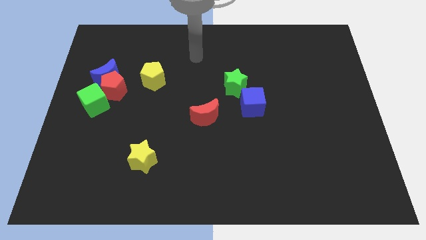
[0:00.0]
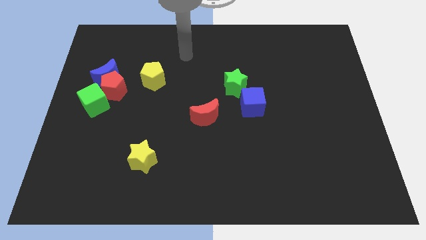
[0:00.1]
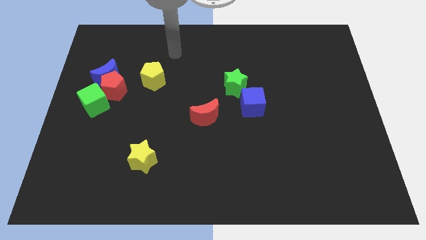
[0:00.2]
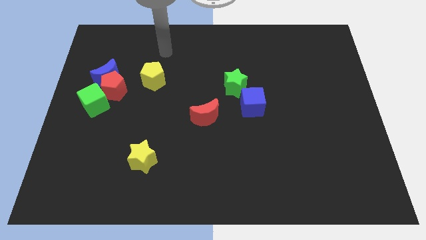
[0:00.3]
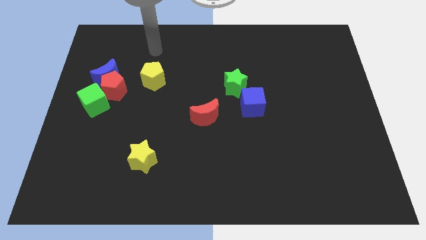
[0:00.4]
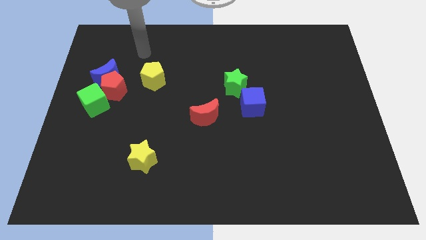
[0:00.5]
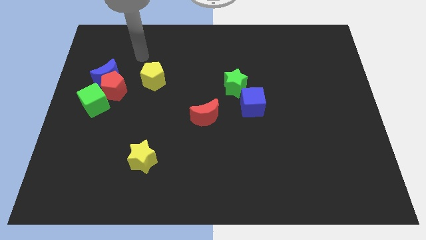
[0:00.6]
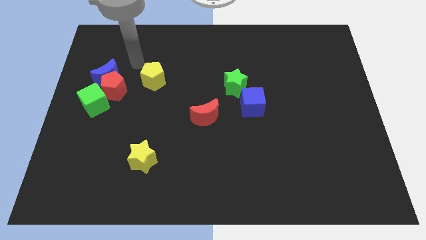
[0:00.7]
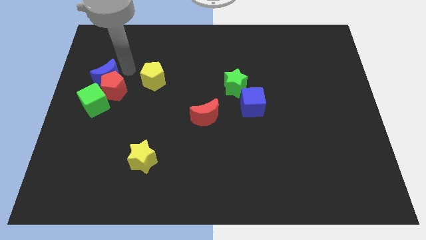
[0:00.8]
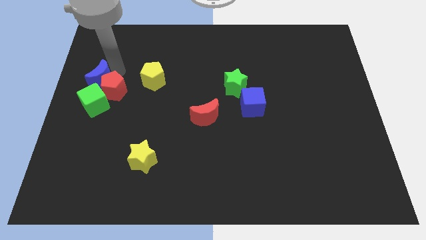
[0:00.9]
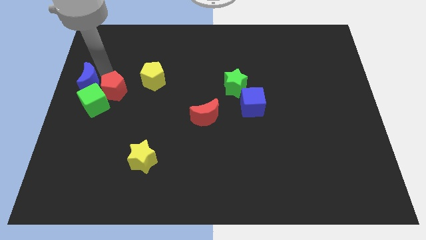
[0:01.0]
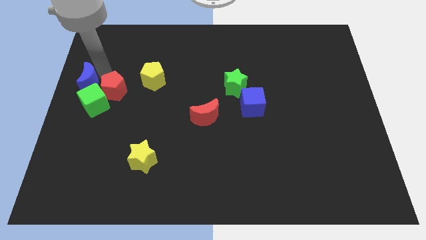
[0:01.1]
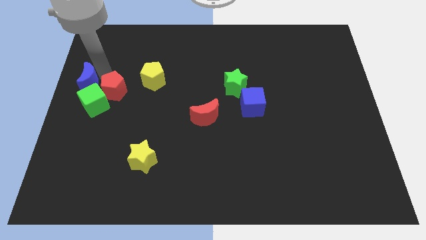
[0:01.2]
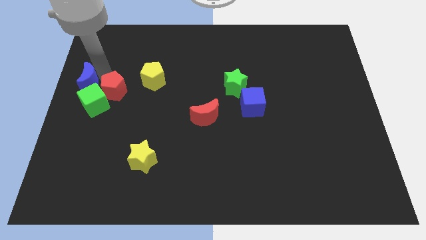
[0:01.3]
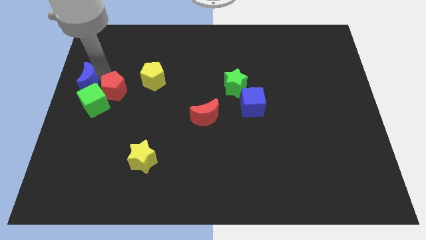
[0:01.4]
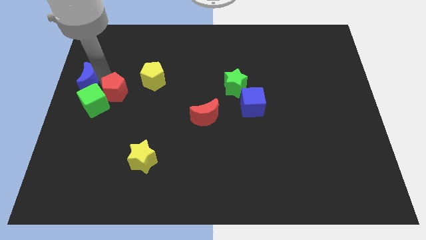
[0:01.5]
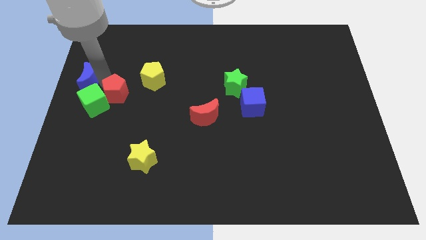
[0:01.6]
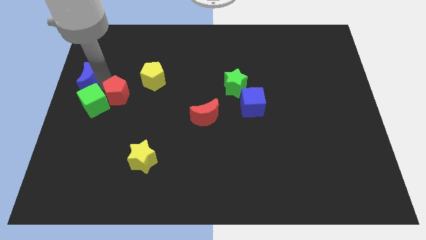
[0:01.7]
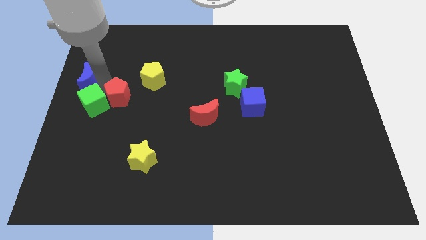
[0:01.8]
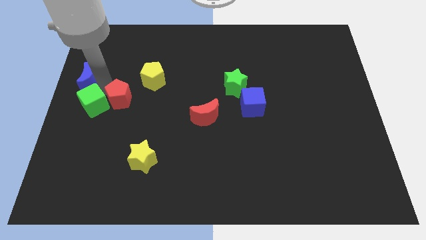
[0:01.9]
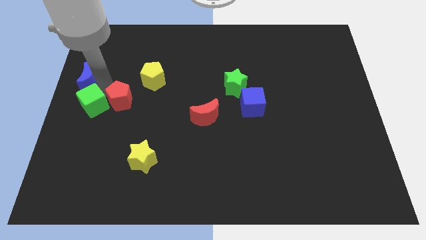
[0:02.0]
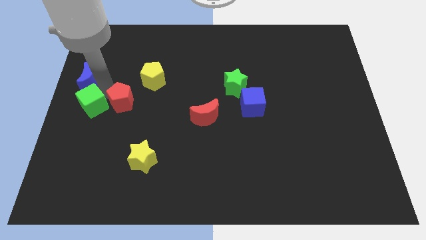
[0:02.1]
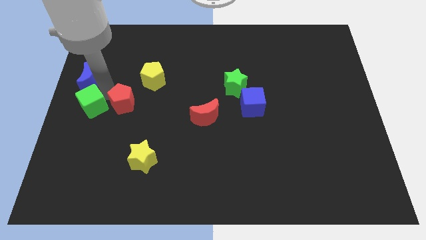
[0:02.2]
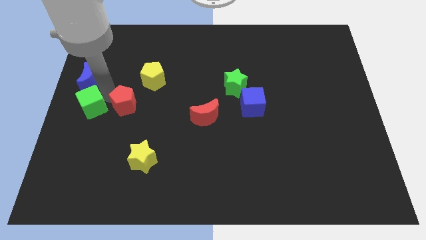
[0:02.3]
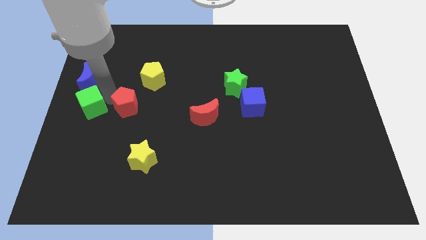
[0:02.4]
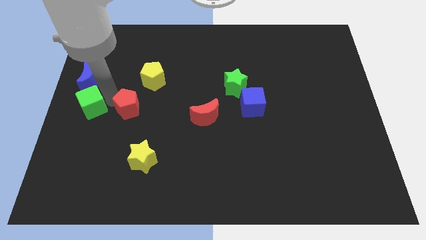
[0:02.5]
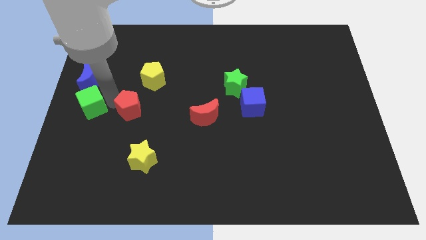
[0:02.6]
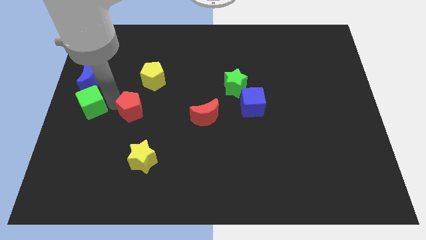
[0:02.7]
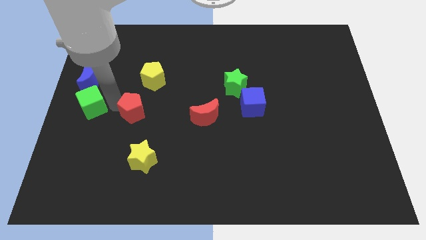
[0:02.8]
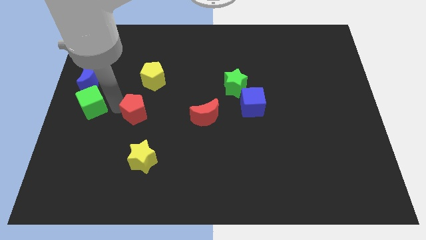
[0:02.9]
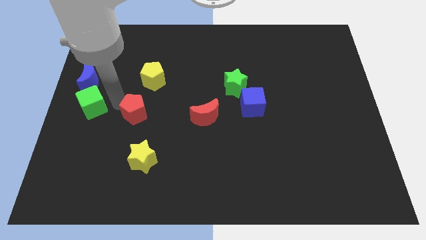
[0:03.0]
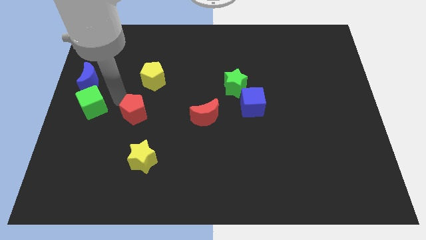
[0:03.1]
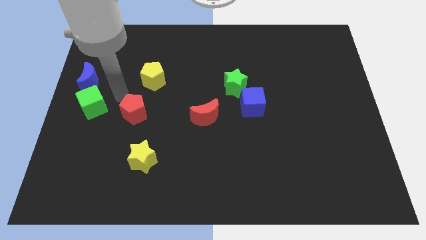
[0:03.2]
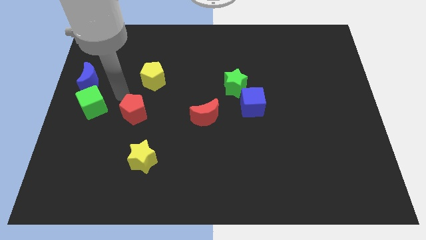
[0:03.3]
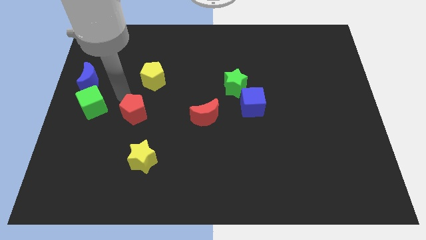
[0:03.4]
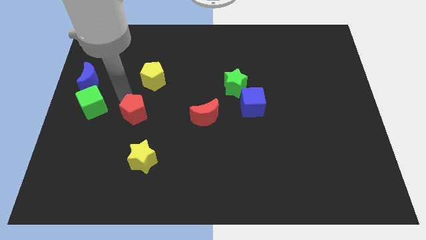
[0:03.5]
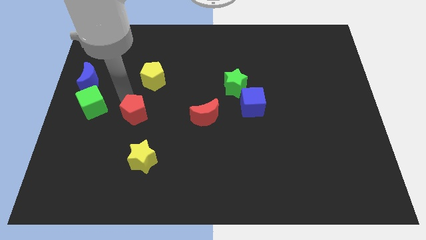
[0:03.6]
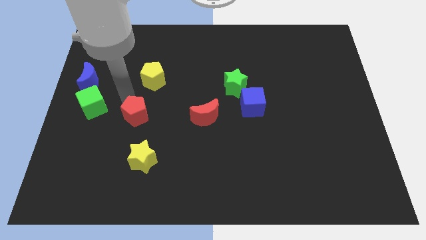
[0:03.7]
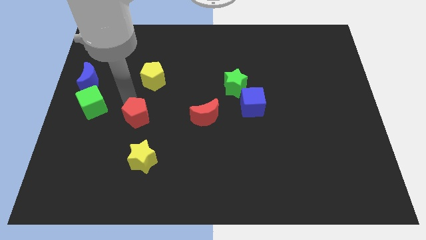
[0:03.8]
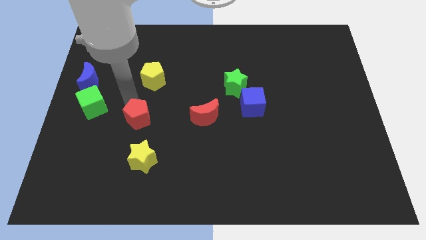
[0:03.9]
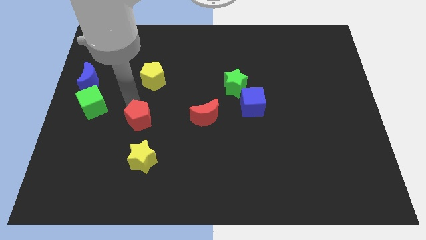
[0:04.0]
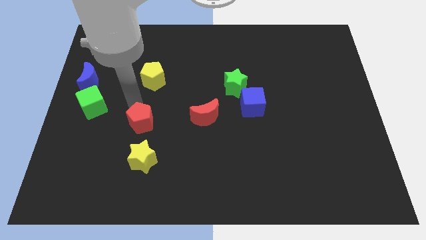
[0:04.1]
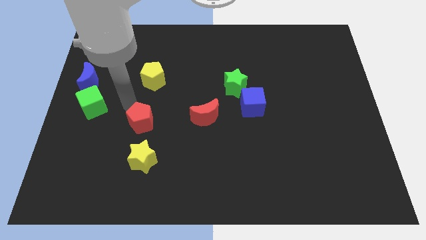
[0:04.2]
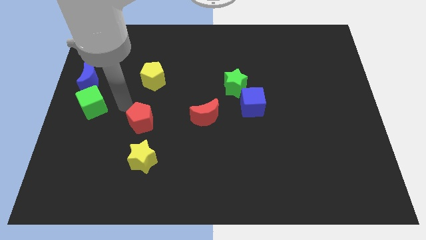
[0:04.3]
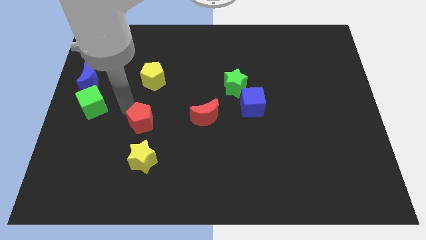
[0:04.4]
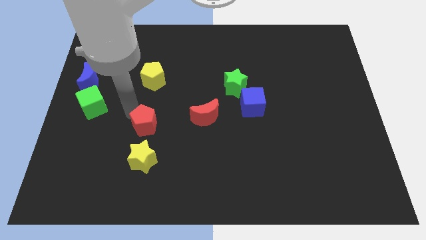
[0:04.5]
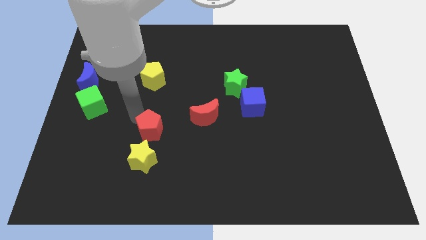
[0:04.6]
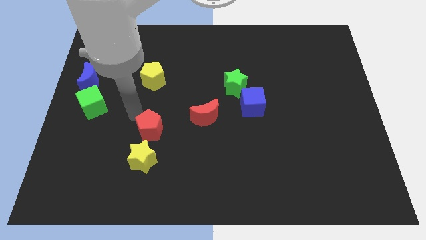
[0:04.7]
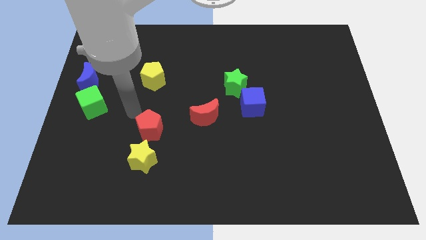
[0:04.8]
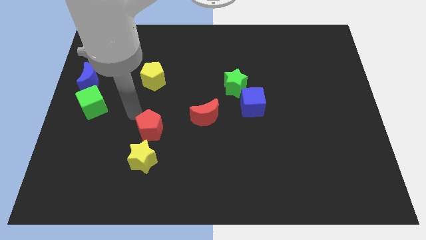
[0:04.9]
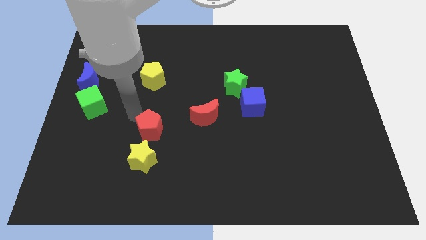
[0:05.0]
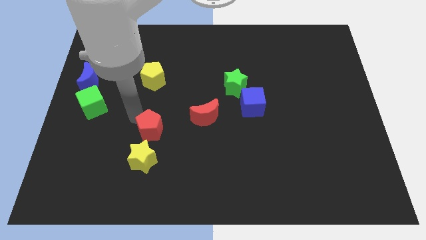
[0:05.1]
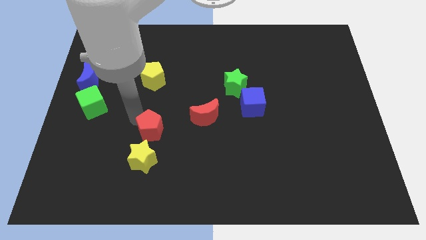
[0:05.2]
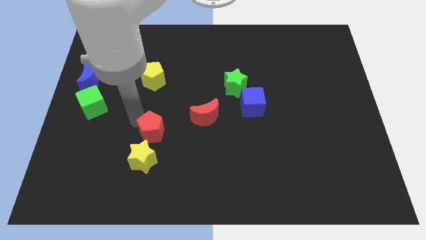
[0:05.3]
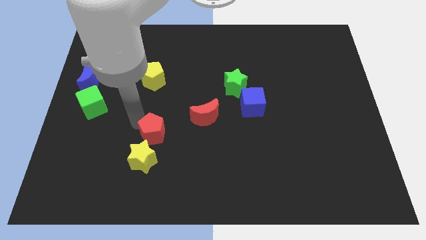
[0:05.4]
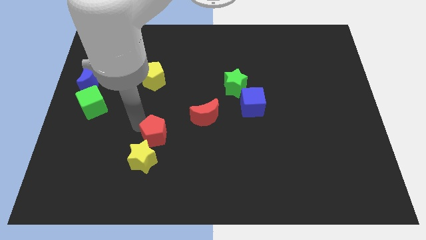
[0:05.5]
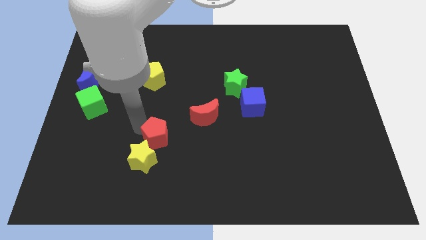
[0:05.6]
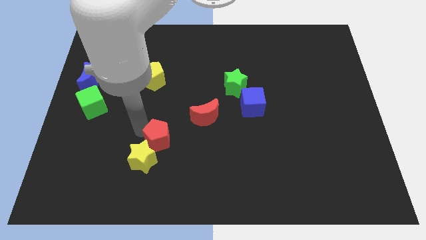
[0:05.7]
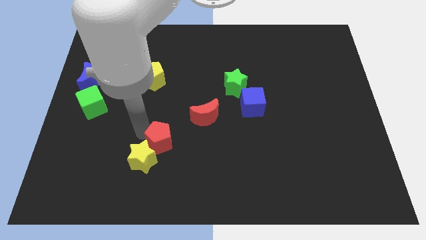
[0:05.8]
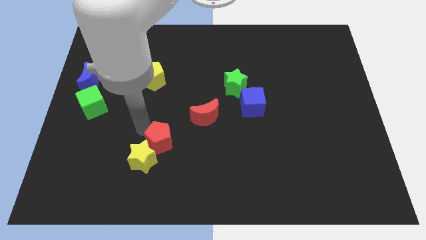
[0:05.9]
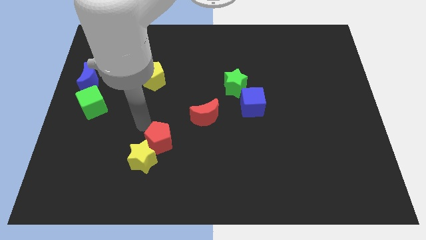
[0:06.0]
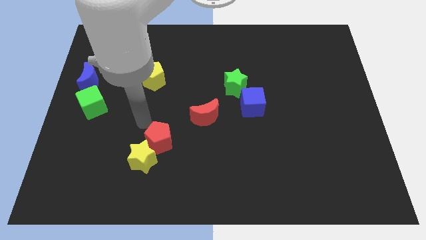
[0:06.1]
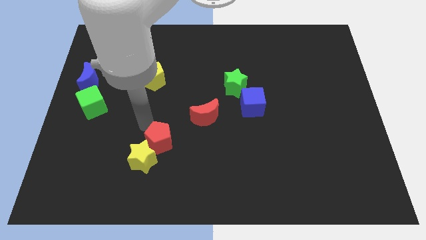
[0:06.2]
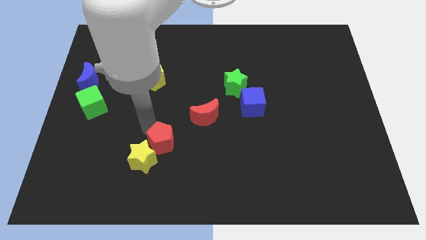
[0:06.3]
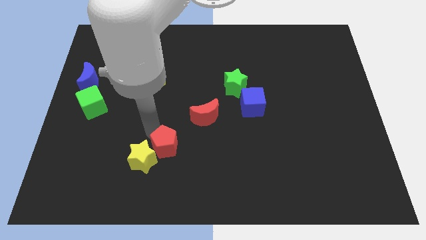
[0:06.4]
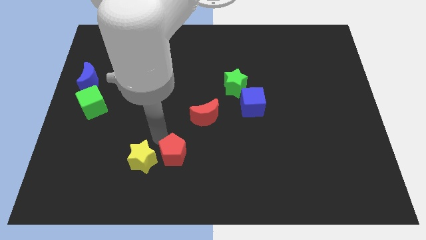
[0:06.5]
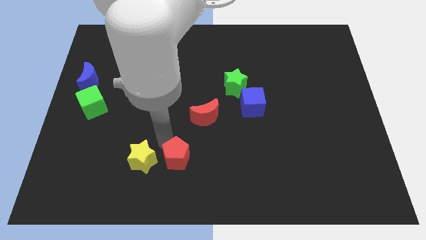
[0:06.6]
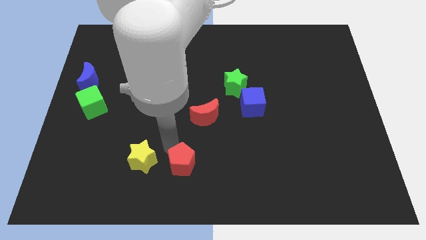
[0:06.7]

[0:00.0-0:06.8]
slide the red pentagon to the bottom side
